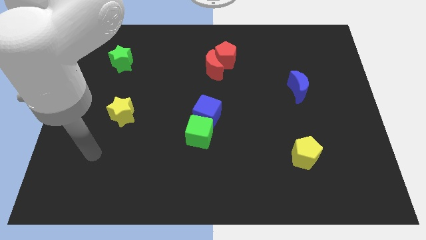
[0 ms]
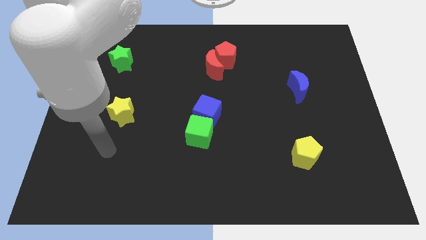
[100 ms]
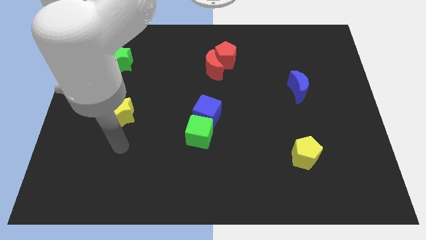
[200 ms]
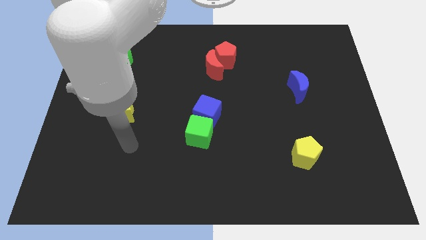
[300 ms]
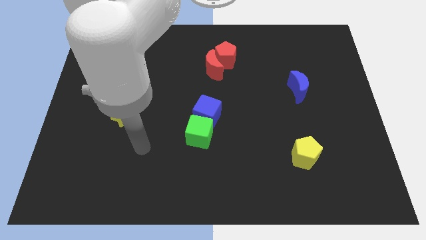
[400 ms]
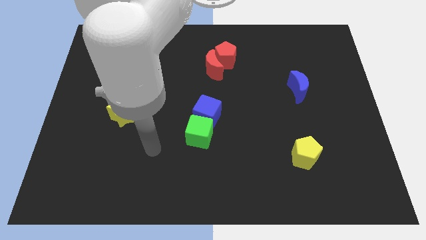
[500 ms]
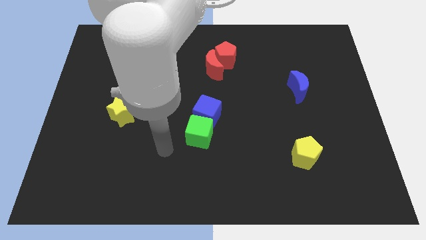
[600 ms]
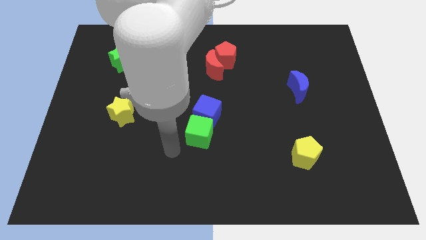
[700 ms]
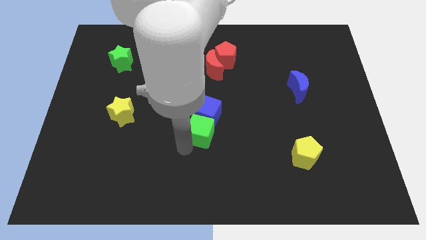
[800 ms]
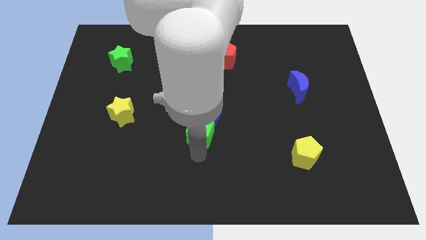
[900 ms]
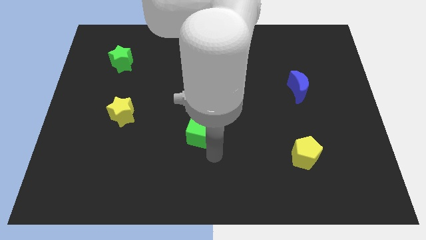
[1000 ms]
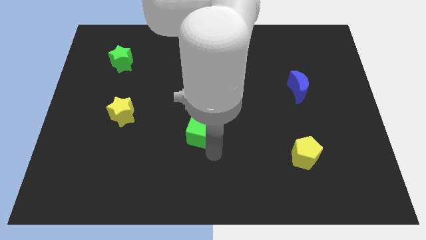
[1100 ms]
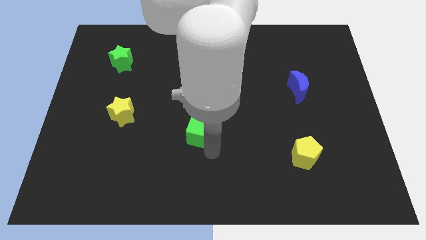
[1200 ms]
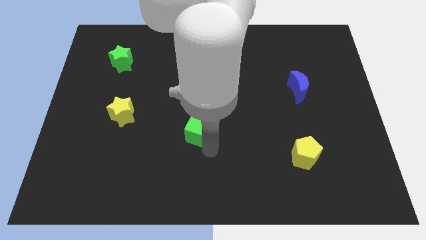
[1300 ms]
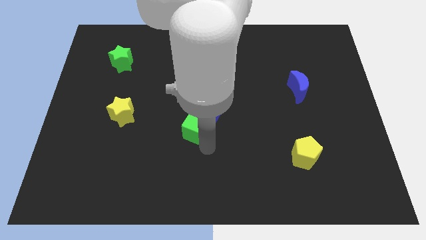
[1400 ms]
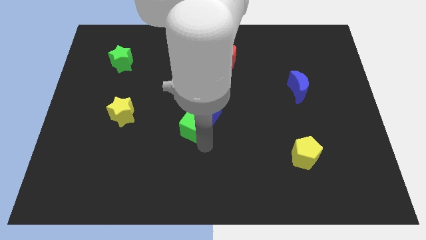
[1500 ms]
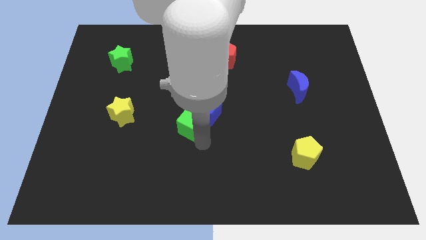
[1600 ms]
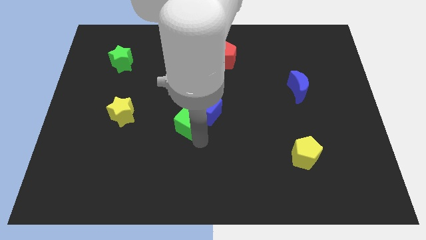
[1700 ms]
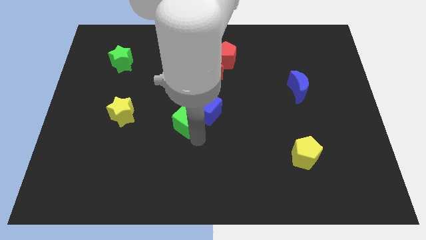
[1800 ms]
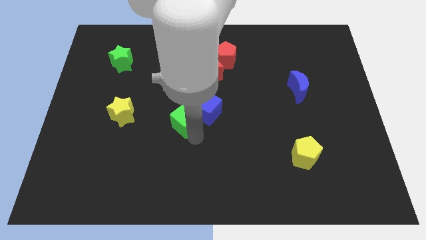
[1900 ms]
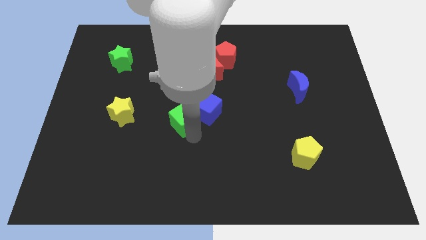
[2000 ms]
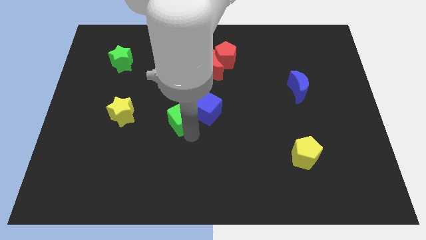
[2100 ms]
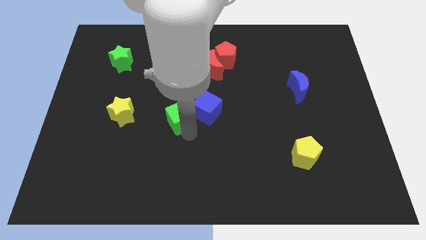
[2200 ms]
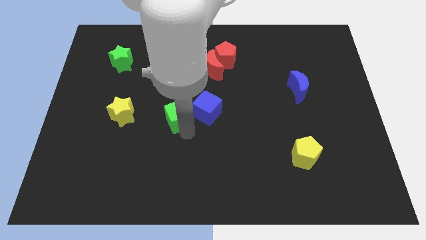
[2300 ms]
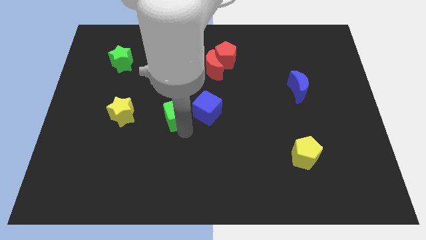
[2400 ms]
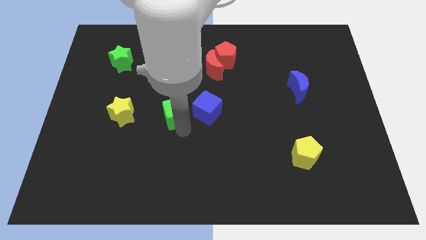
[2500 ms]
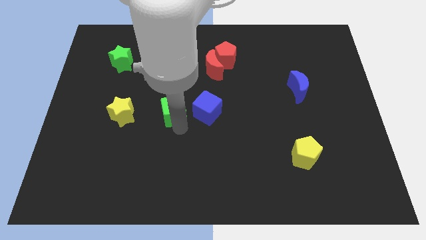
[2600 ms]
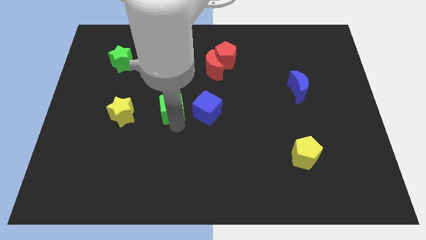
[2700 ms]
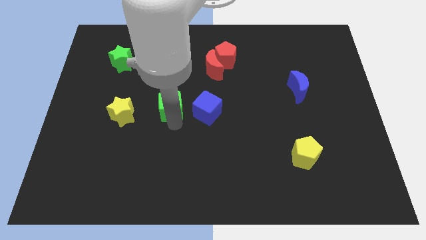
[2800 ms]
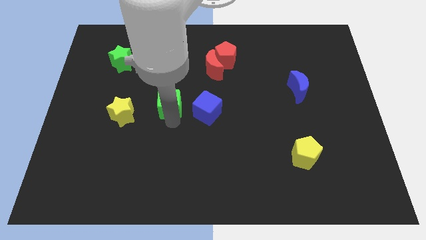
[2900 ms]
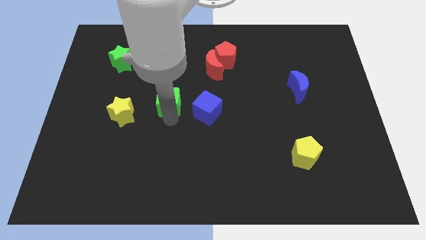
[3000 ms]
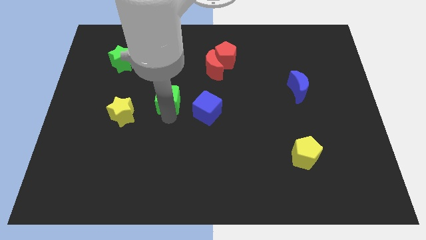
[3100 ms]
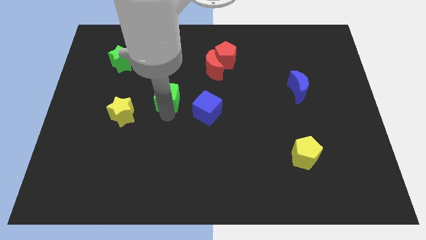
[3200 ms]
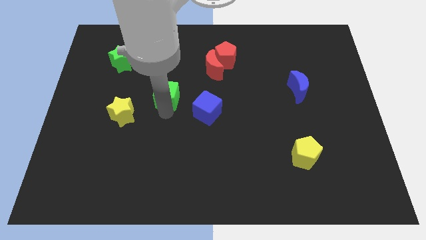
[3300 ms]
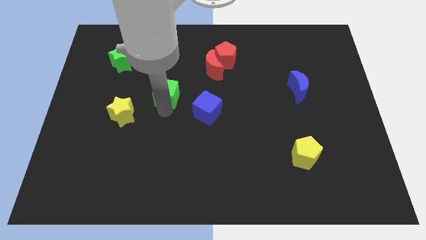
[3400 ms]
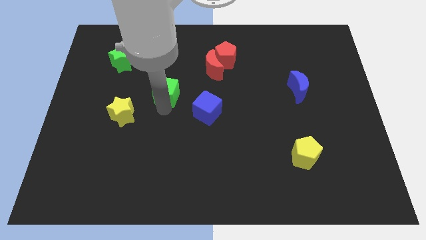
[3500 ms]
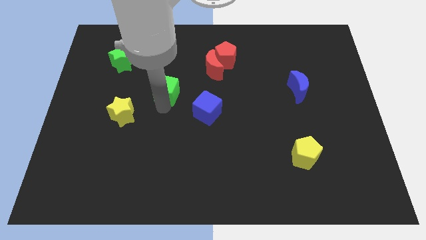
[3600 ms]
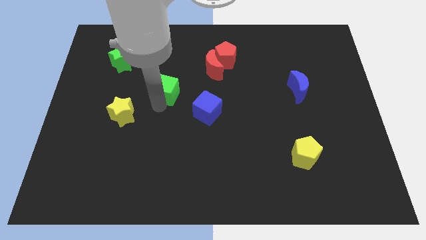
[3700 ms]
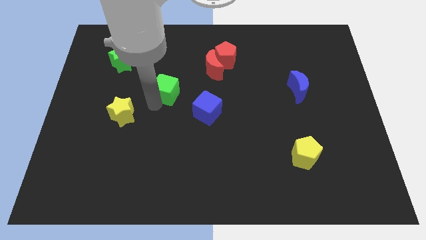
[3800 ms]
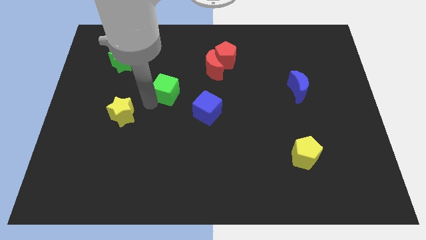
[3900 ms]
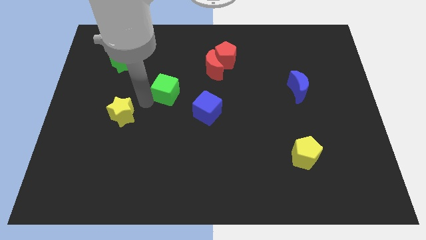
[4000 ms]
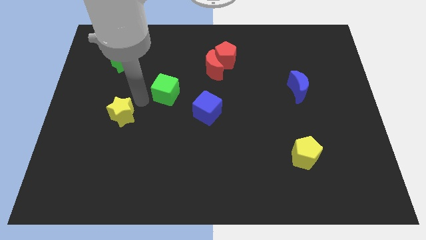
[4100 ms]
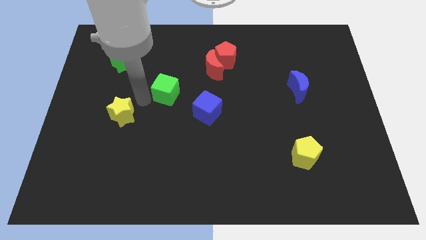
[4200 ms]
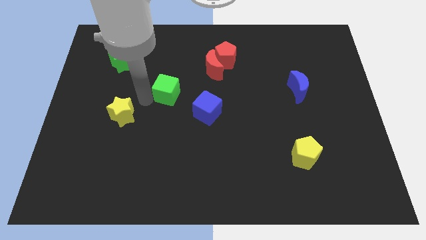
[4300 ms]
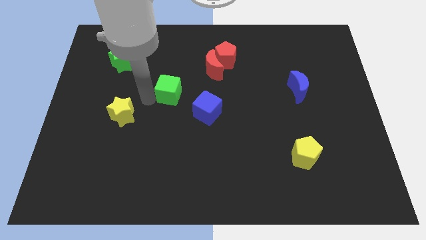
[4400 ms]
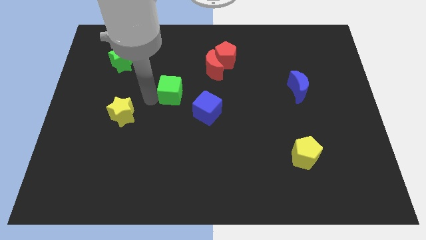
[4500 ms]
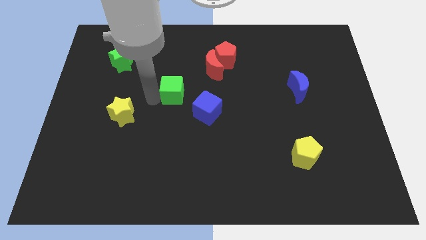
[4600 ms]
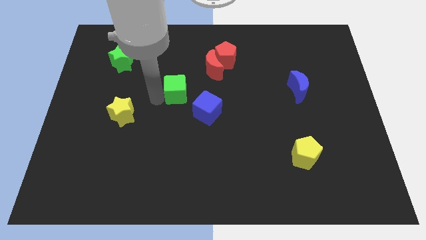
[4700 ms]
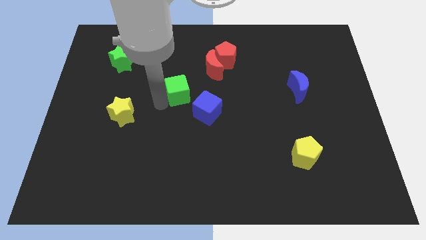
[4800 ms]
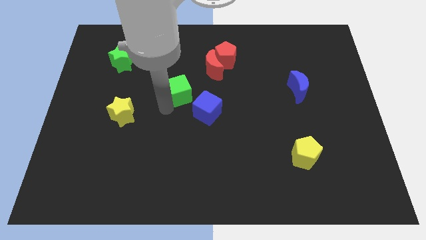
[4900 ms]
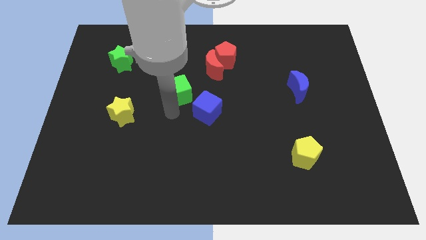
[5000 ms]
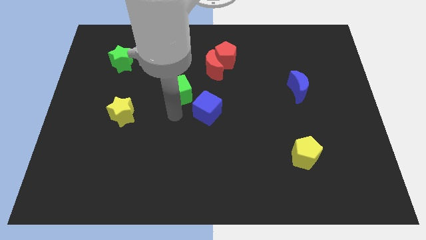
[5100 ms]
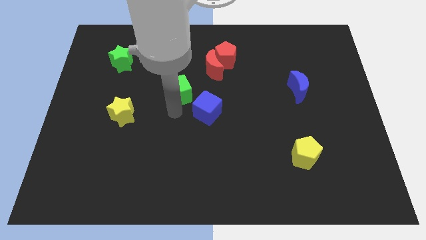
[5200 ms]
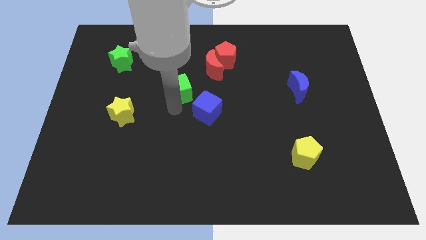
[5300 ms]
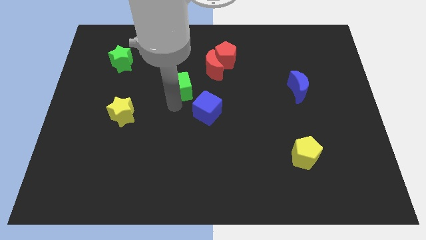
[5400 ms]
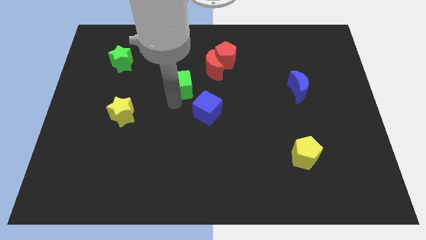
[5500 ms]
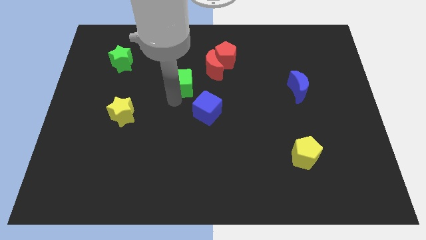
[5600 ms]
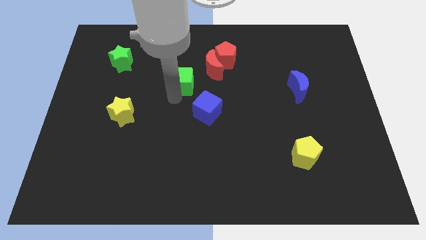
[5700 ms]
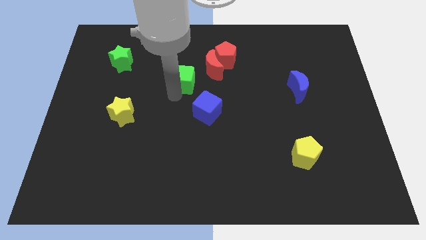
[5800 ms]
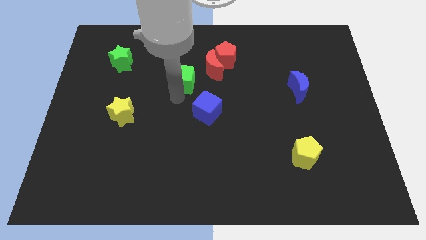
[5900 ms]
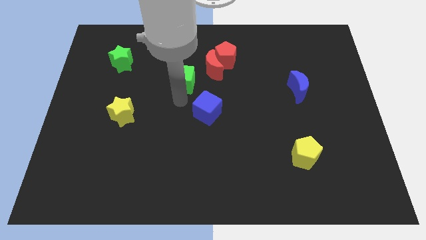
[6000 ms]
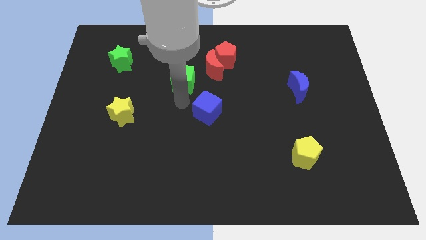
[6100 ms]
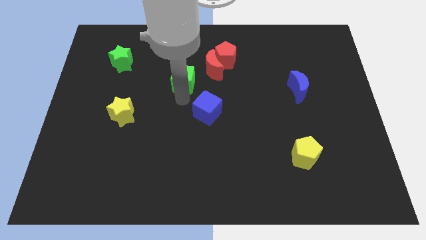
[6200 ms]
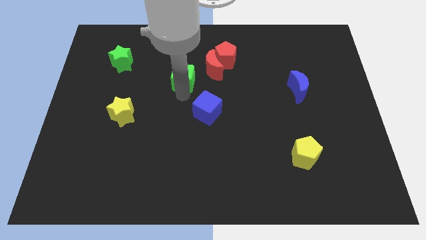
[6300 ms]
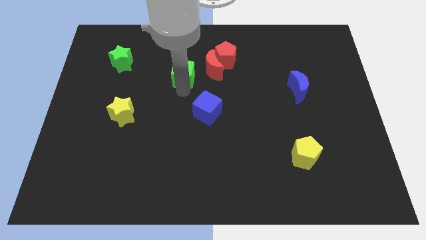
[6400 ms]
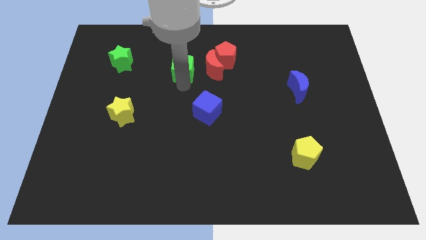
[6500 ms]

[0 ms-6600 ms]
push the green cube left of the red pentagon
